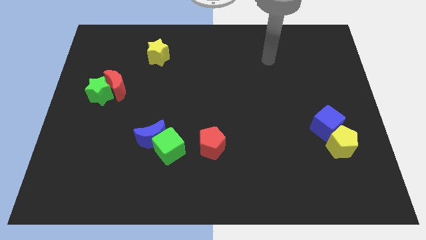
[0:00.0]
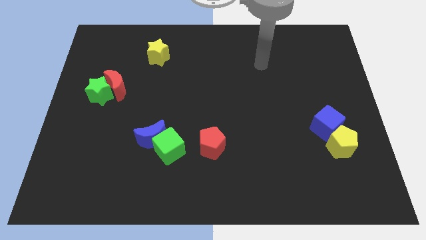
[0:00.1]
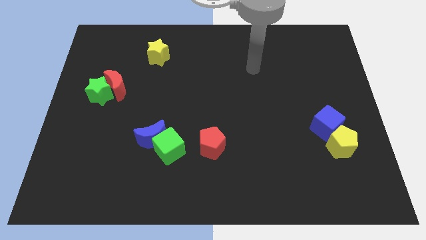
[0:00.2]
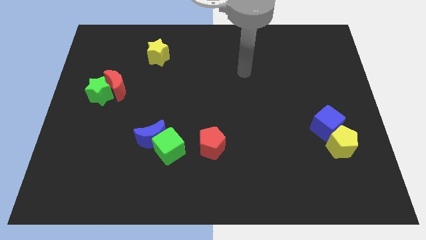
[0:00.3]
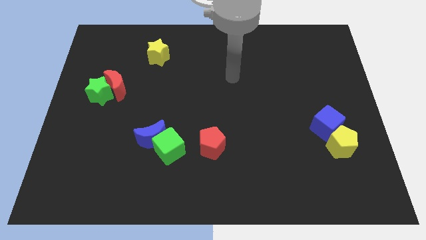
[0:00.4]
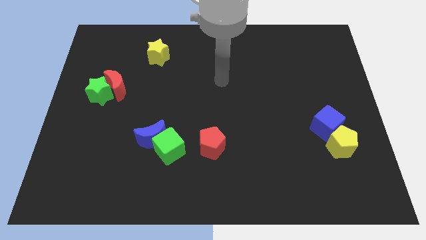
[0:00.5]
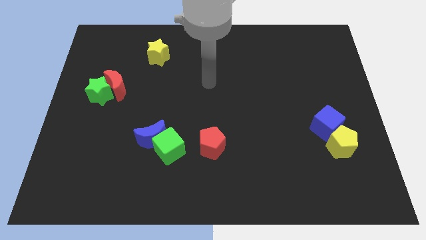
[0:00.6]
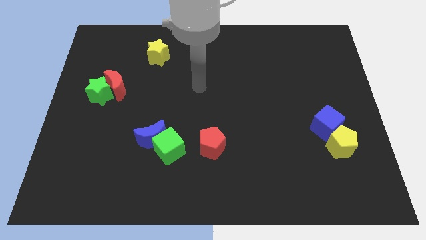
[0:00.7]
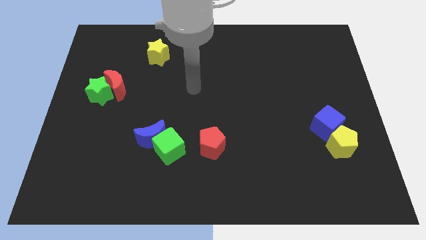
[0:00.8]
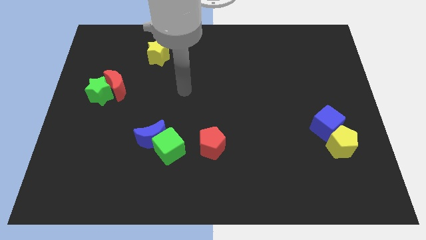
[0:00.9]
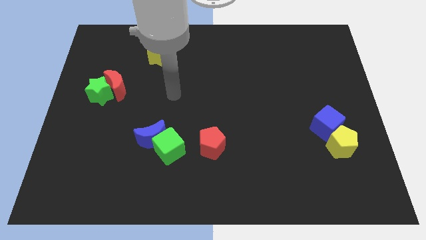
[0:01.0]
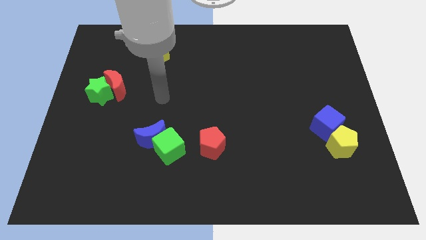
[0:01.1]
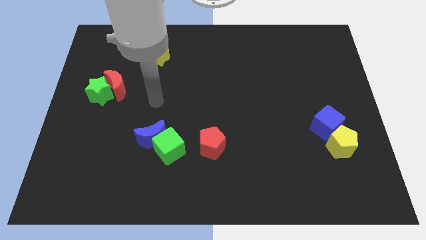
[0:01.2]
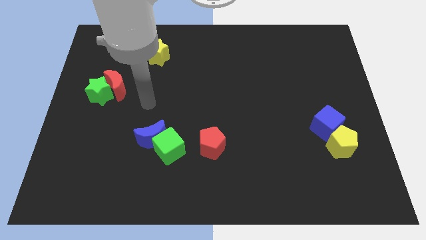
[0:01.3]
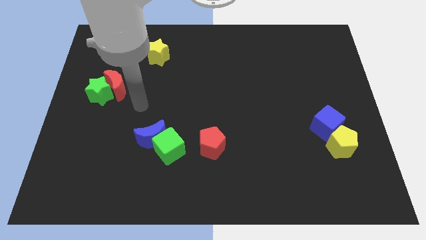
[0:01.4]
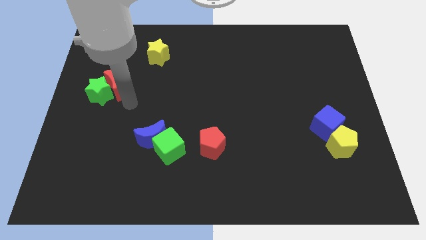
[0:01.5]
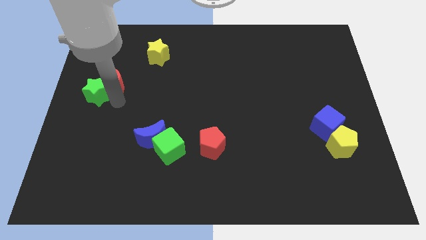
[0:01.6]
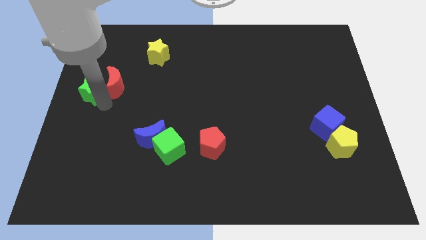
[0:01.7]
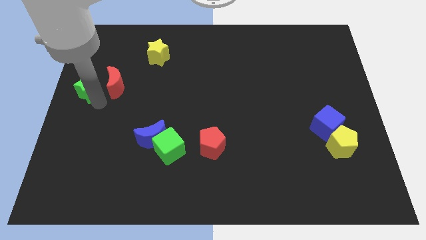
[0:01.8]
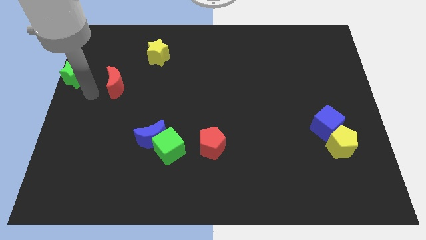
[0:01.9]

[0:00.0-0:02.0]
separate the red moon from the green star

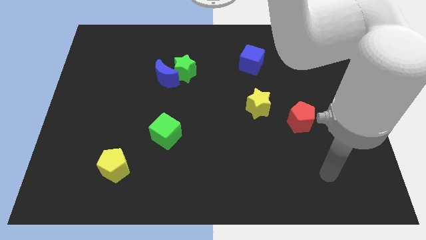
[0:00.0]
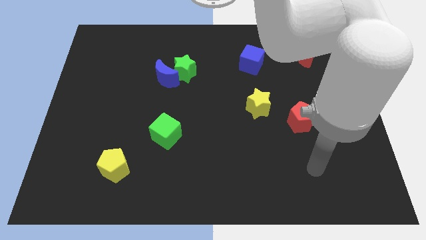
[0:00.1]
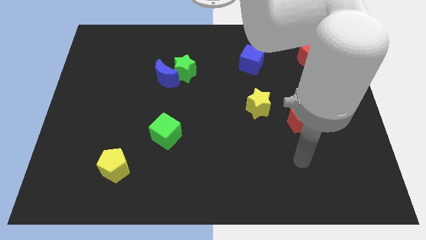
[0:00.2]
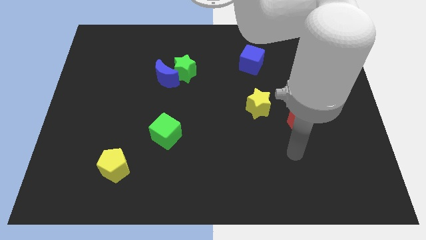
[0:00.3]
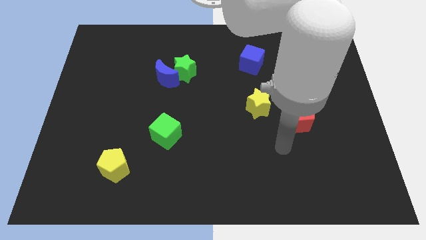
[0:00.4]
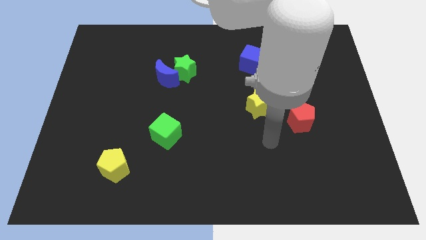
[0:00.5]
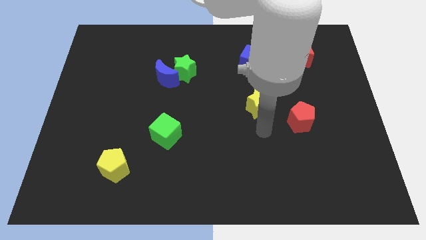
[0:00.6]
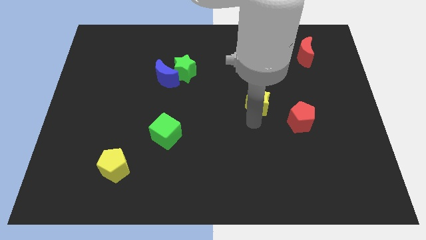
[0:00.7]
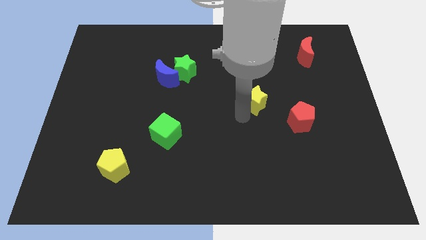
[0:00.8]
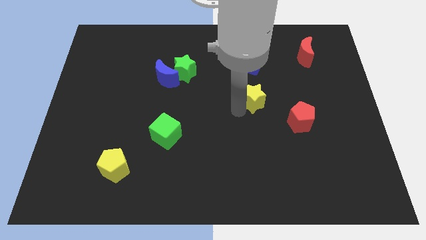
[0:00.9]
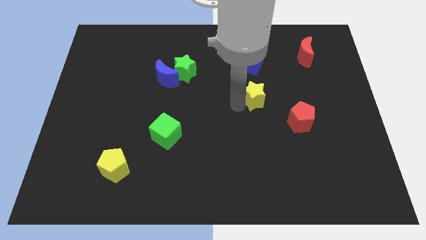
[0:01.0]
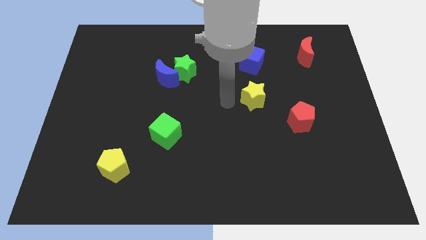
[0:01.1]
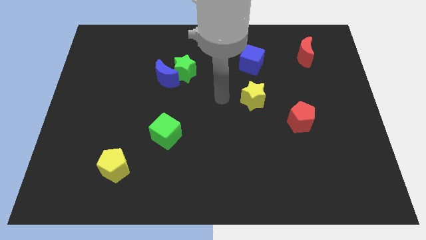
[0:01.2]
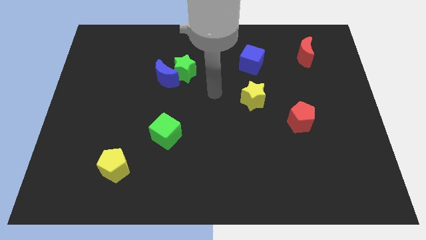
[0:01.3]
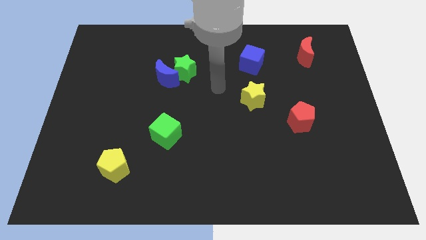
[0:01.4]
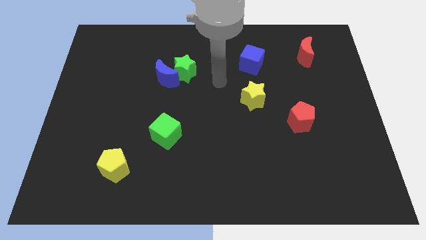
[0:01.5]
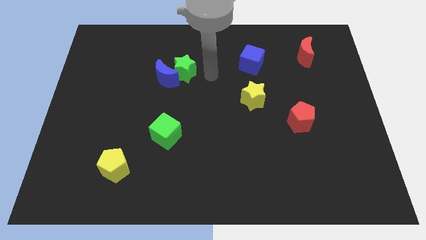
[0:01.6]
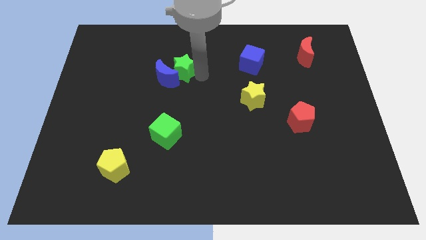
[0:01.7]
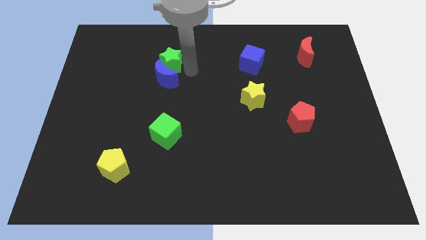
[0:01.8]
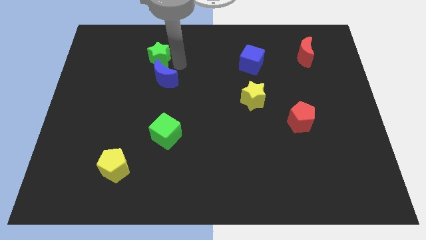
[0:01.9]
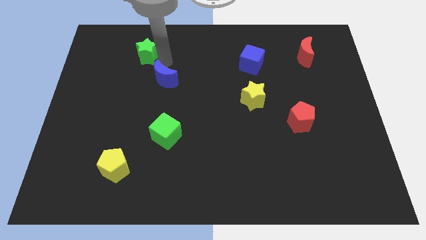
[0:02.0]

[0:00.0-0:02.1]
separate the blue moon from the green star

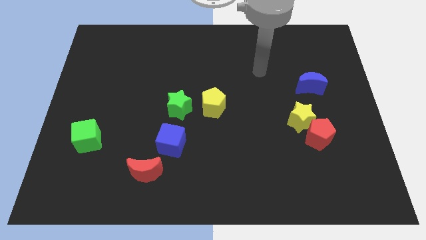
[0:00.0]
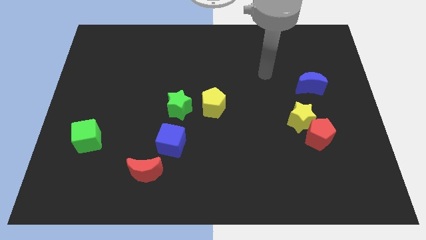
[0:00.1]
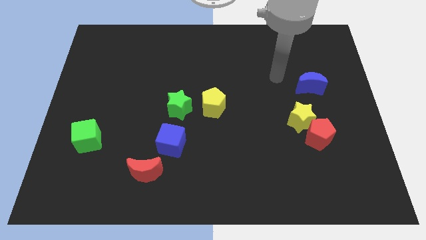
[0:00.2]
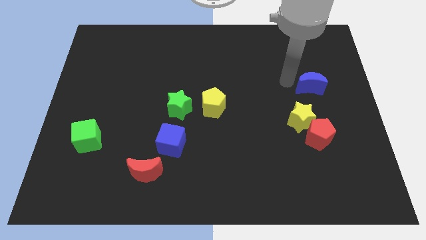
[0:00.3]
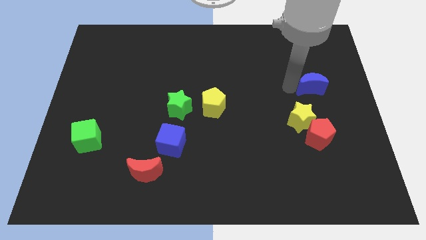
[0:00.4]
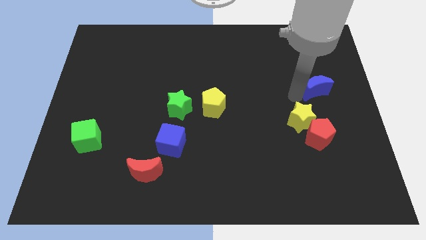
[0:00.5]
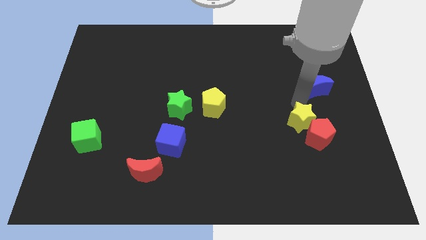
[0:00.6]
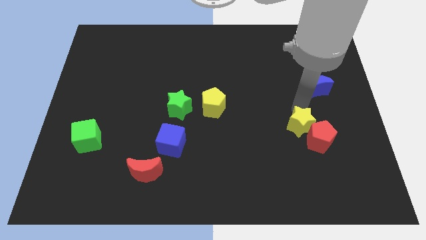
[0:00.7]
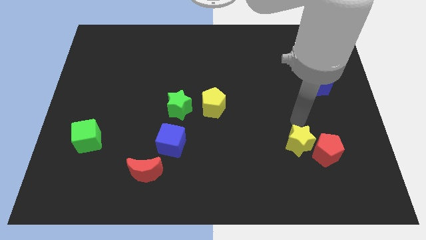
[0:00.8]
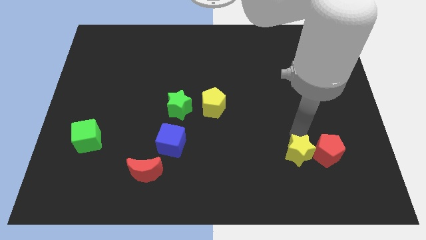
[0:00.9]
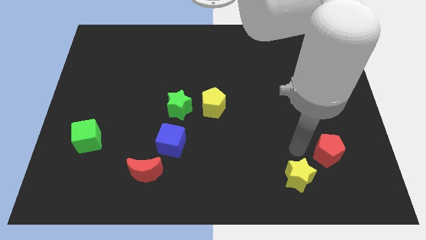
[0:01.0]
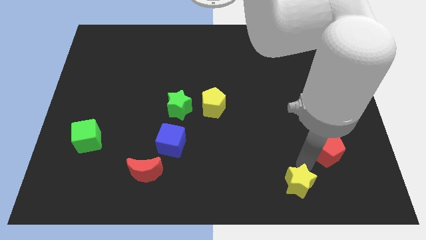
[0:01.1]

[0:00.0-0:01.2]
pull the red pentagon apart from the yellow star

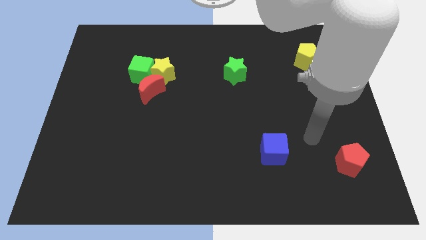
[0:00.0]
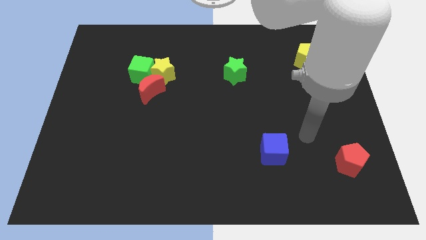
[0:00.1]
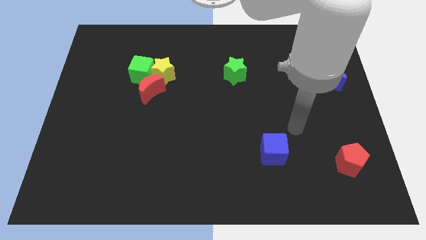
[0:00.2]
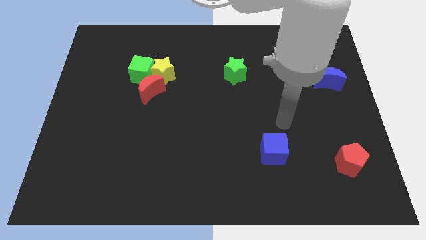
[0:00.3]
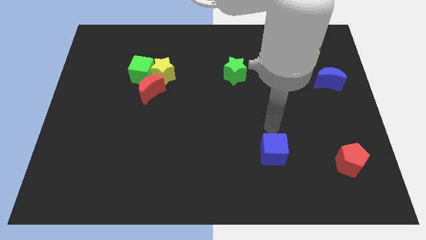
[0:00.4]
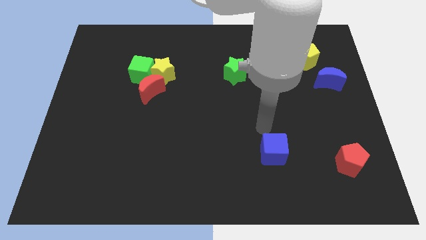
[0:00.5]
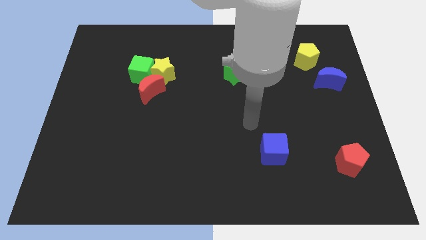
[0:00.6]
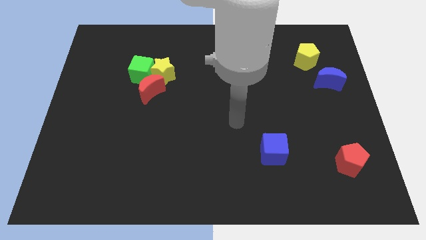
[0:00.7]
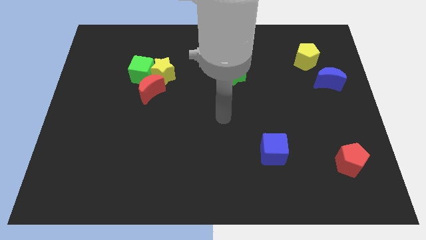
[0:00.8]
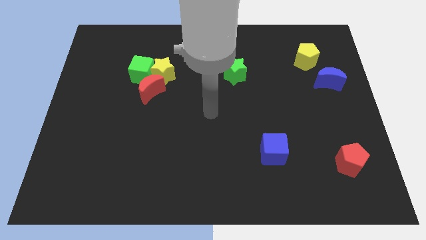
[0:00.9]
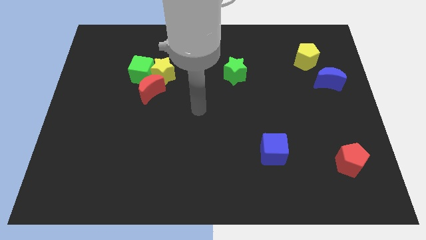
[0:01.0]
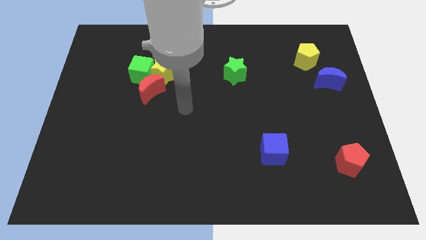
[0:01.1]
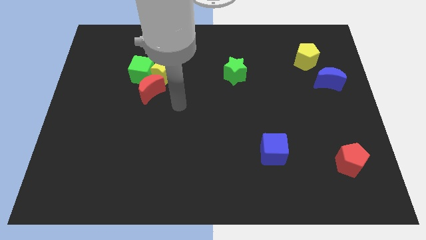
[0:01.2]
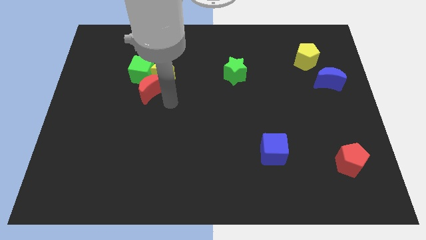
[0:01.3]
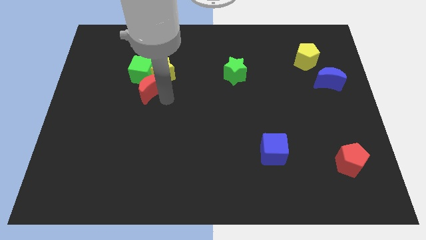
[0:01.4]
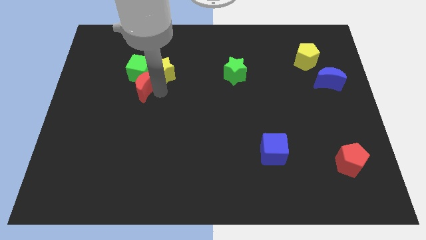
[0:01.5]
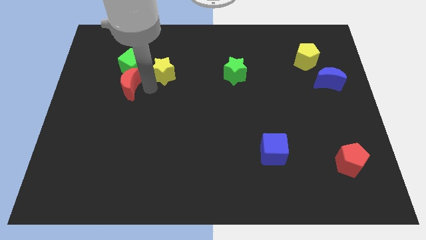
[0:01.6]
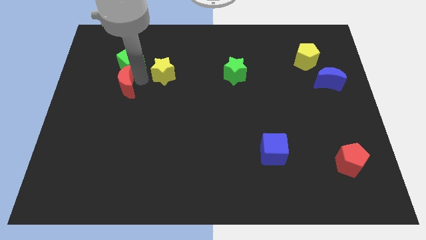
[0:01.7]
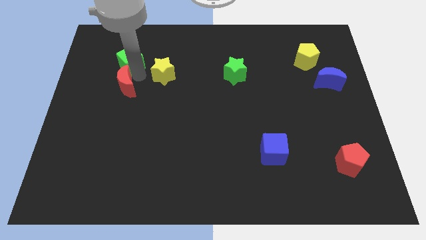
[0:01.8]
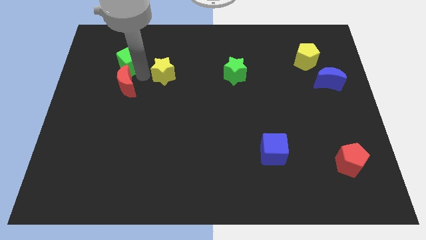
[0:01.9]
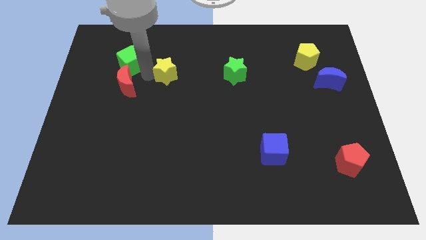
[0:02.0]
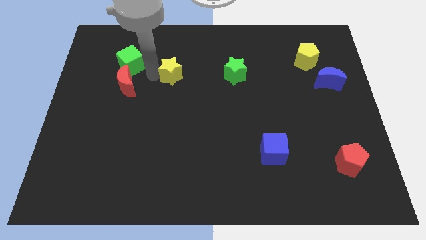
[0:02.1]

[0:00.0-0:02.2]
move the yellow star away from the green cube and red moon

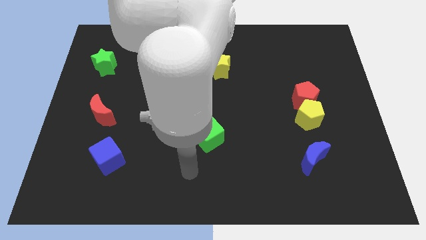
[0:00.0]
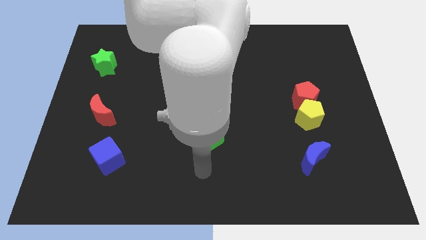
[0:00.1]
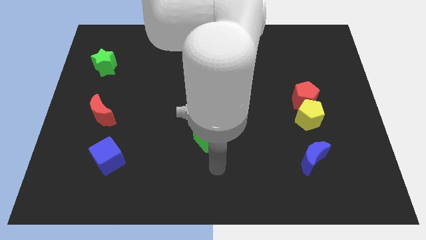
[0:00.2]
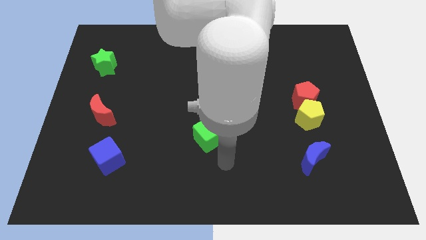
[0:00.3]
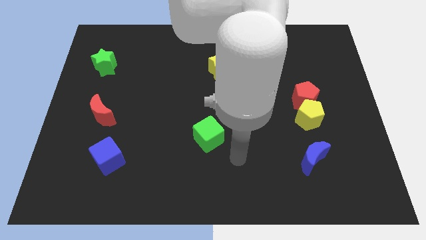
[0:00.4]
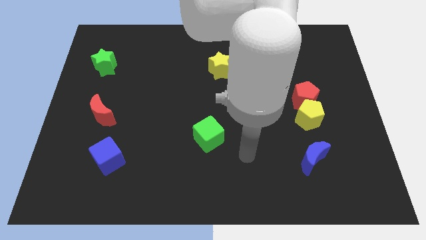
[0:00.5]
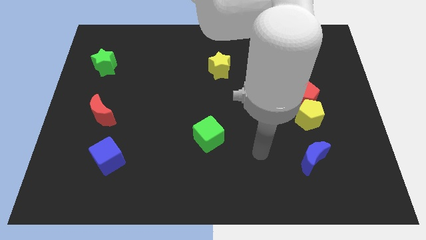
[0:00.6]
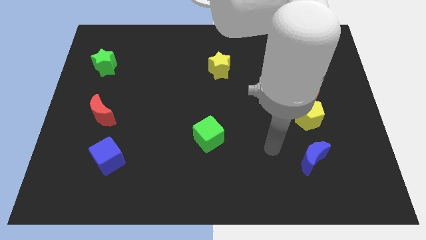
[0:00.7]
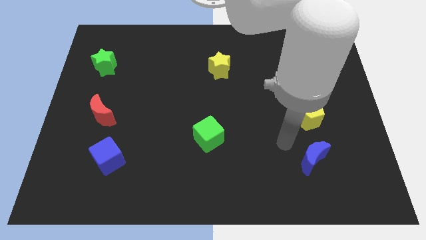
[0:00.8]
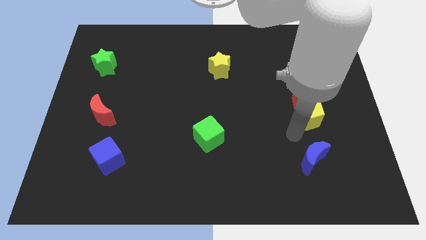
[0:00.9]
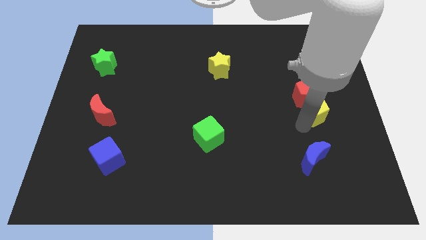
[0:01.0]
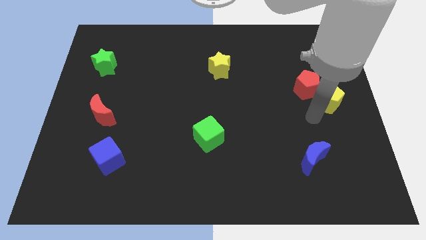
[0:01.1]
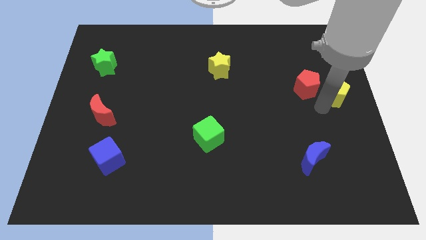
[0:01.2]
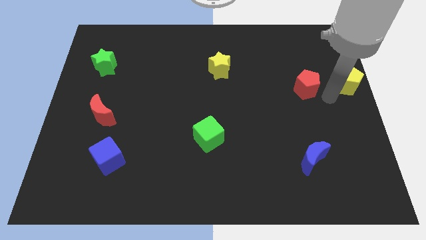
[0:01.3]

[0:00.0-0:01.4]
pull the red pentagon apart from the yellow pentagon

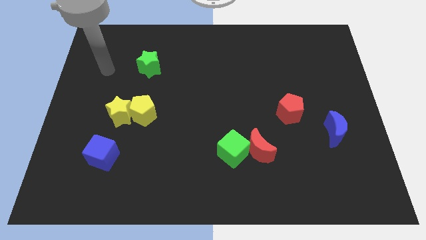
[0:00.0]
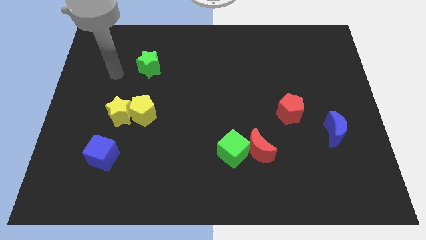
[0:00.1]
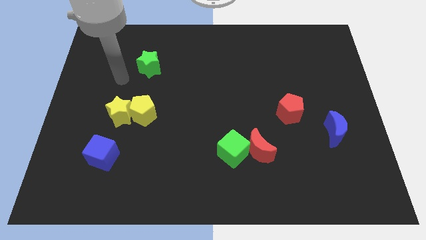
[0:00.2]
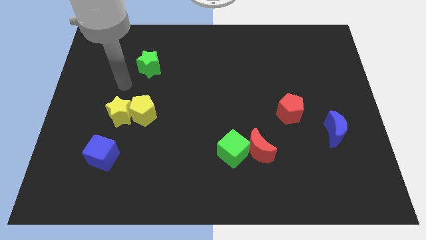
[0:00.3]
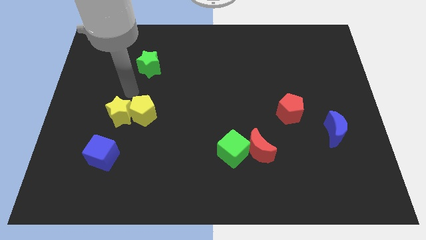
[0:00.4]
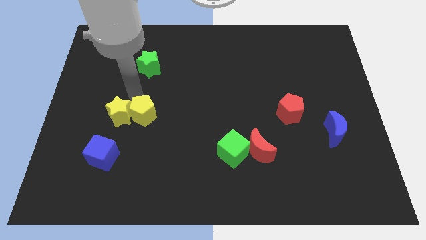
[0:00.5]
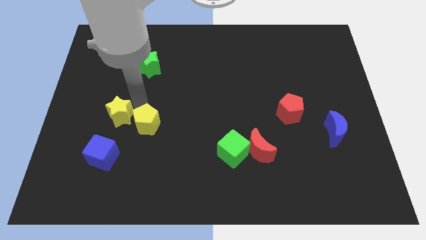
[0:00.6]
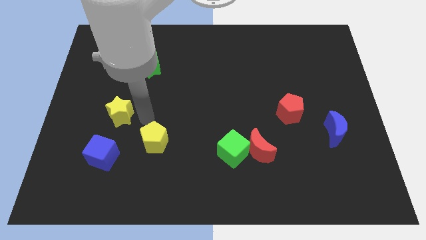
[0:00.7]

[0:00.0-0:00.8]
move the yellow star away from the yellow pentagon
